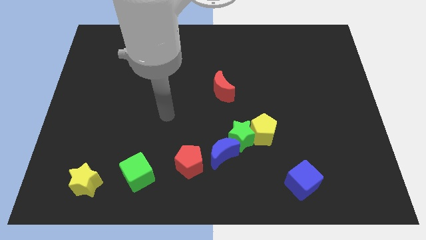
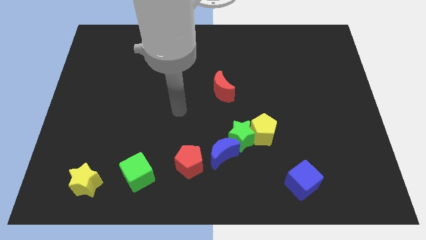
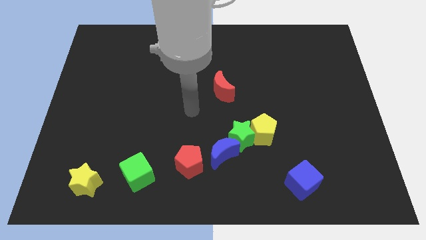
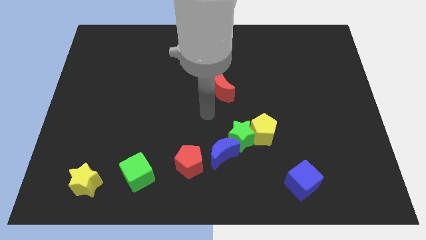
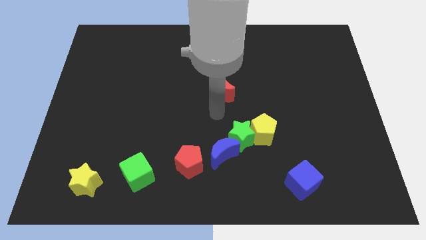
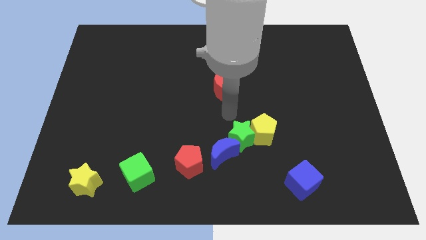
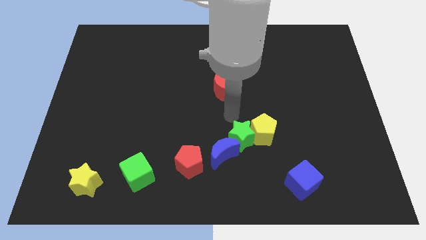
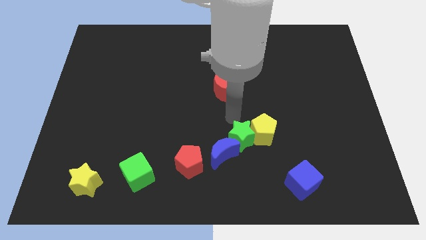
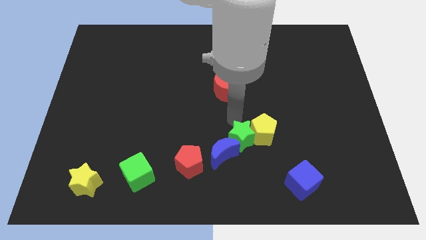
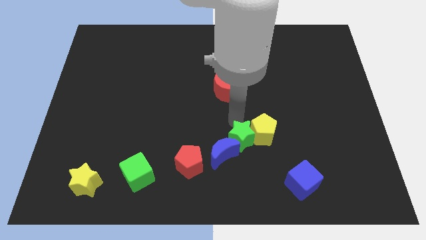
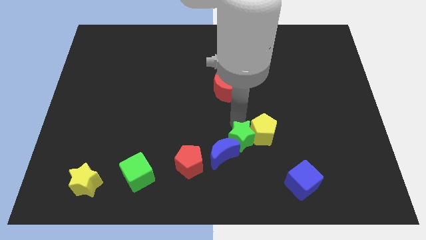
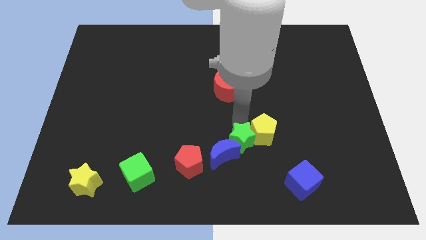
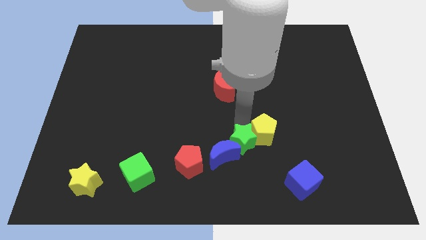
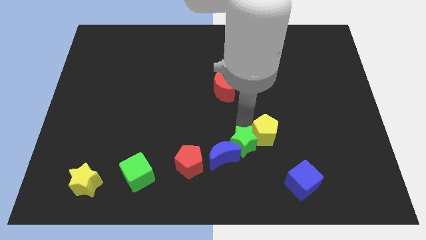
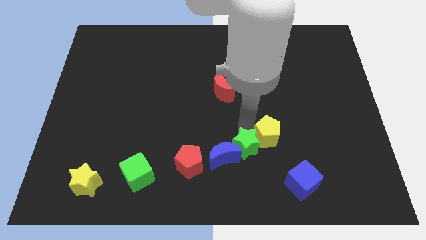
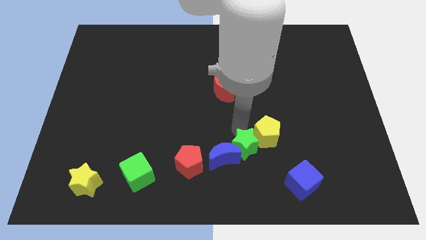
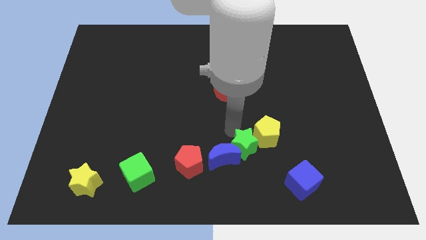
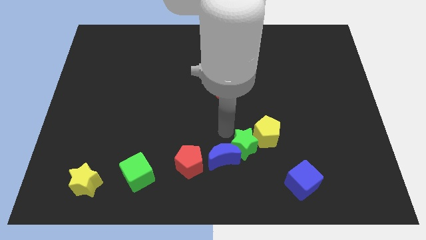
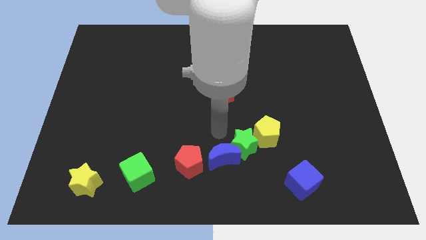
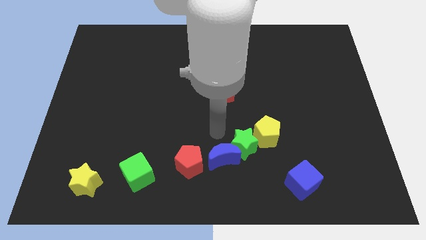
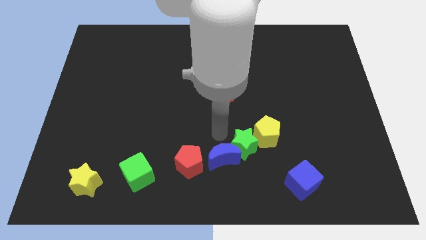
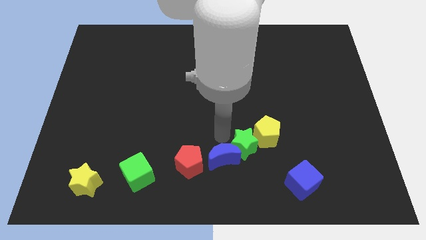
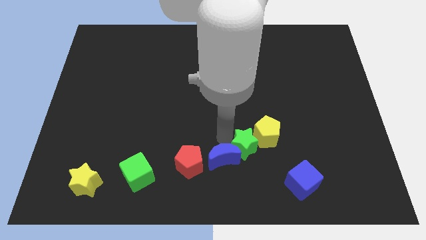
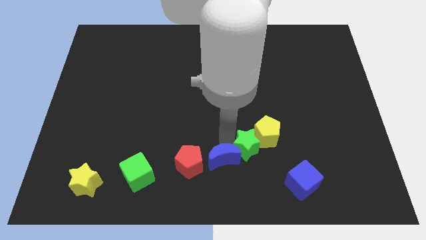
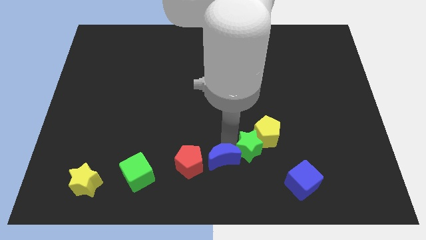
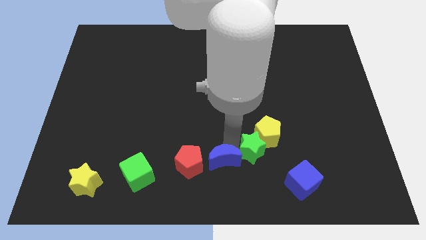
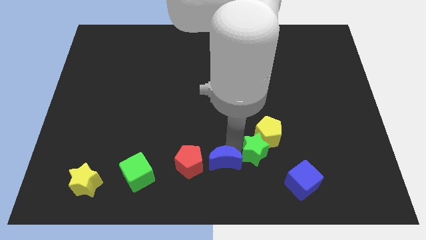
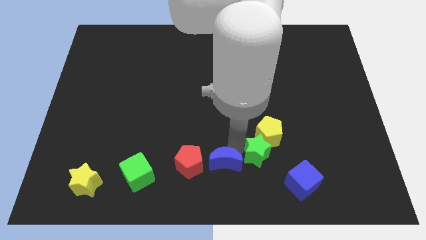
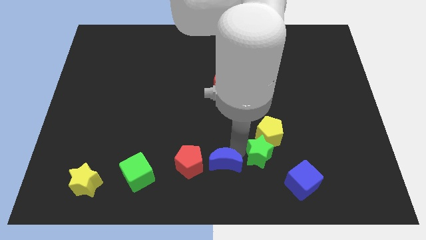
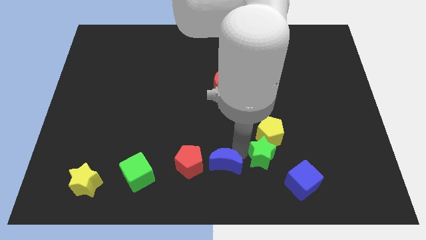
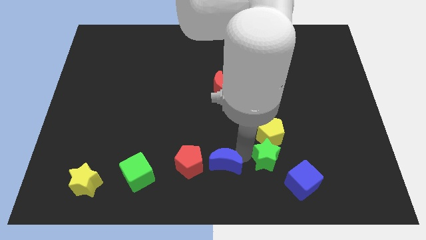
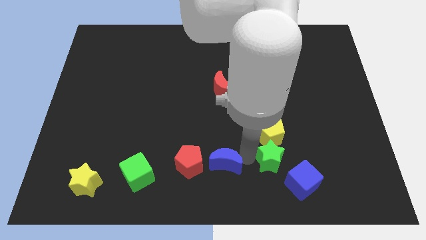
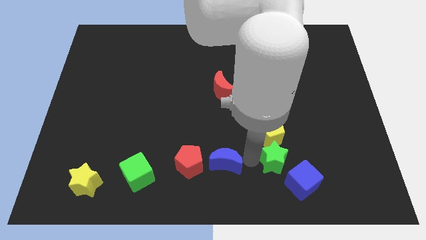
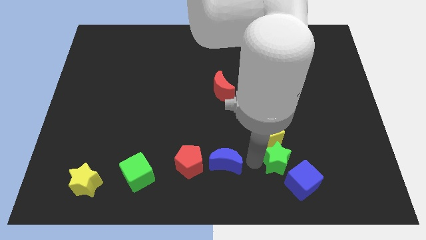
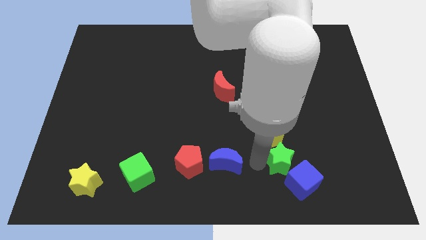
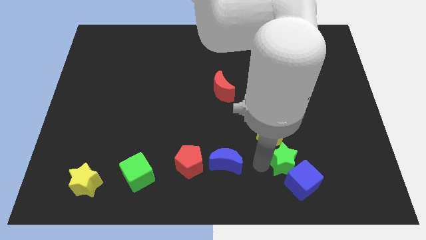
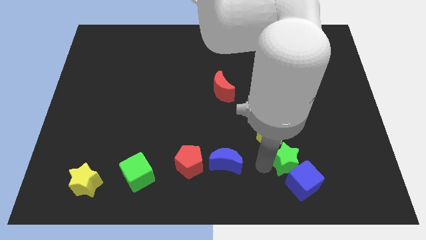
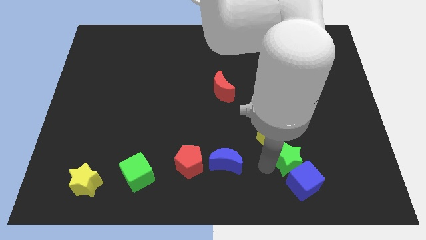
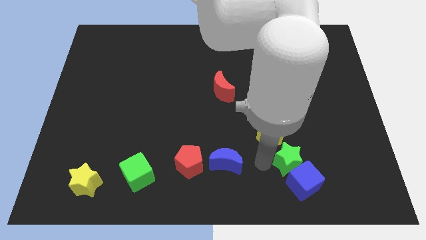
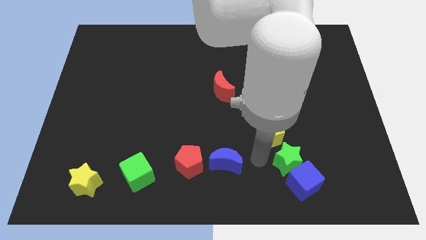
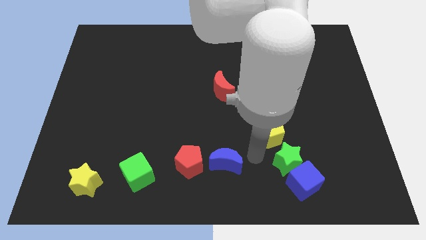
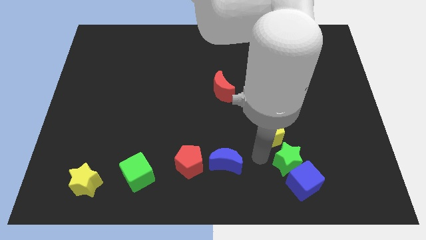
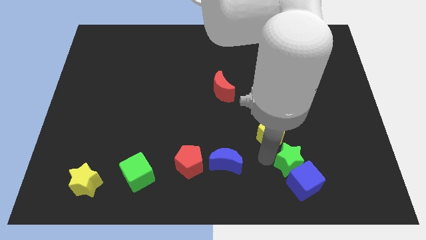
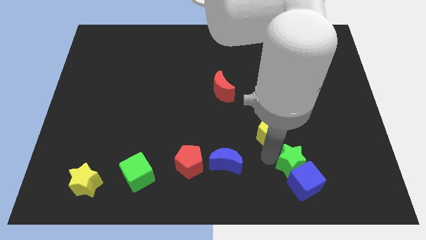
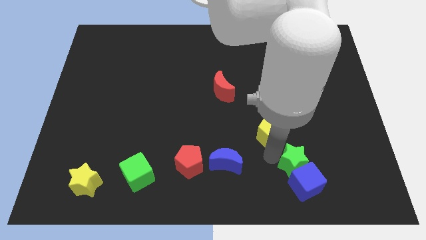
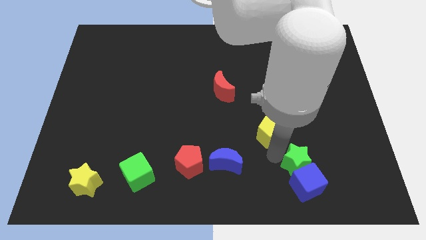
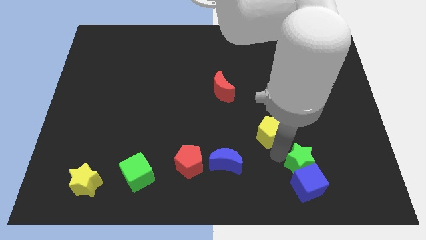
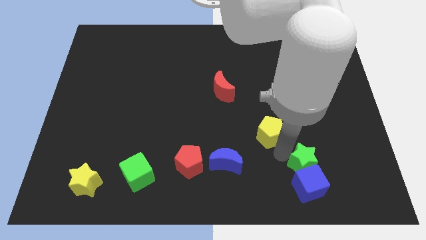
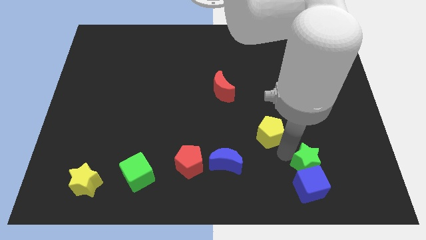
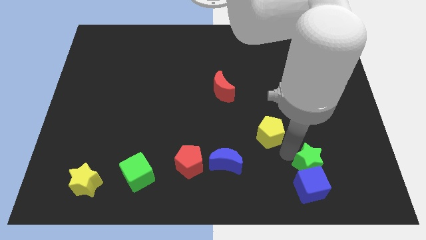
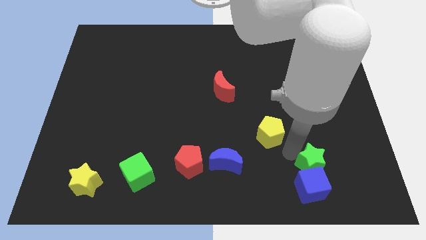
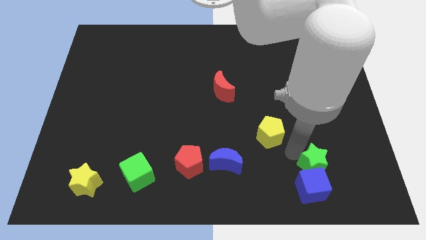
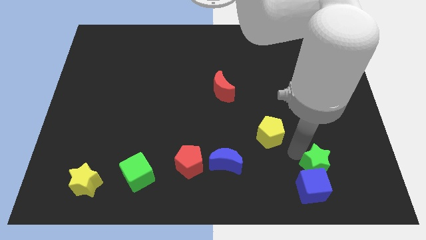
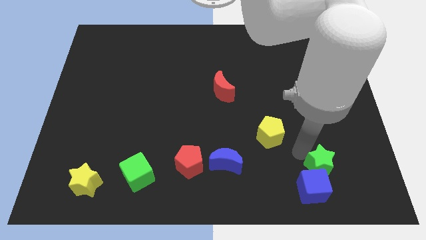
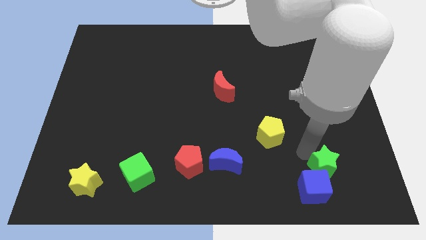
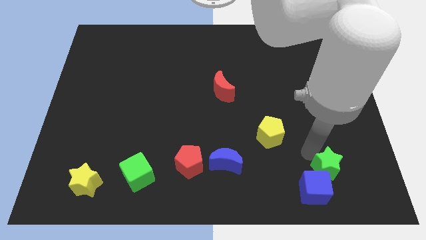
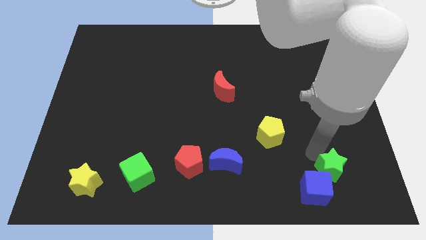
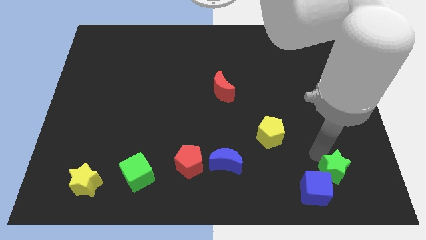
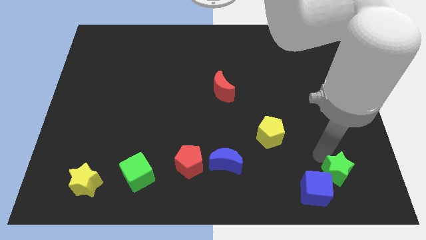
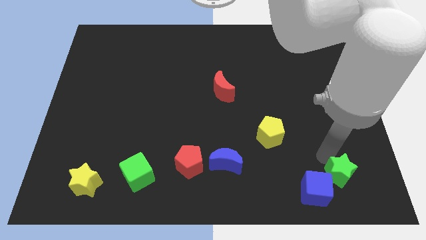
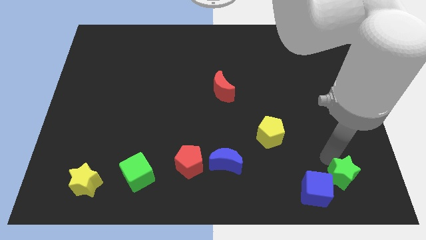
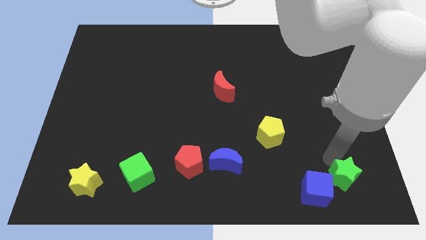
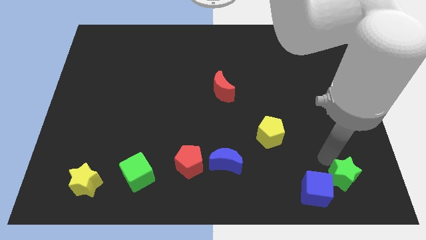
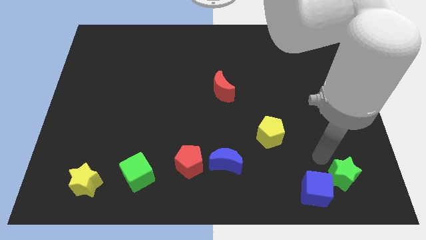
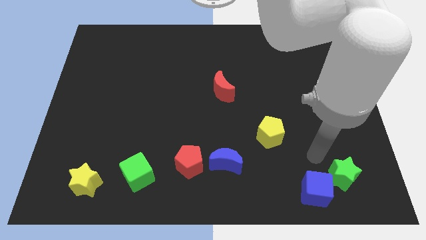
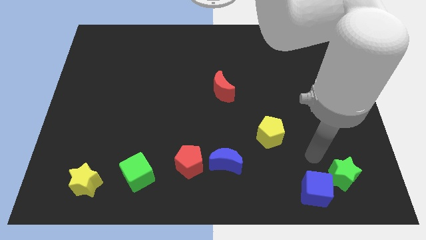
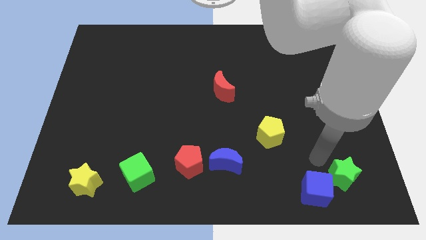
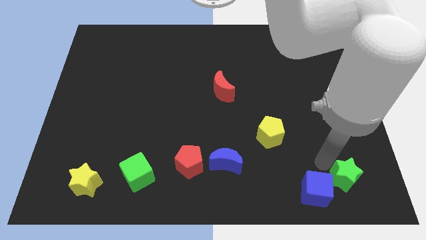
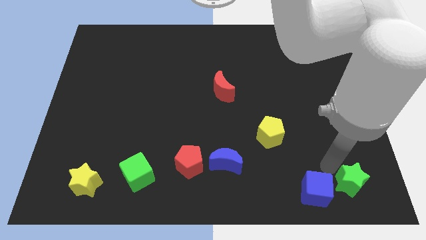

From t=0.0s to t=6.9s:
push the green star to the lower right corner

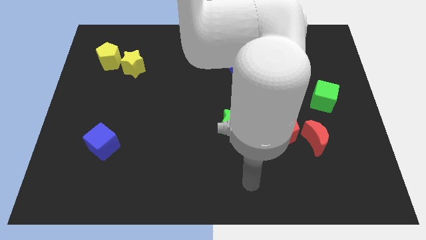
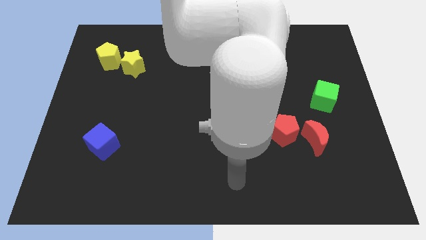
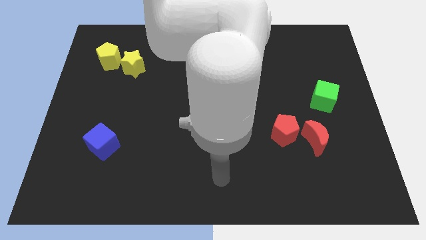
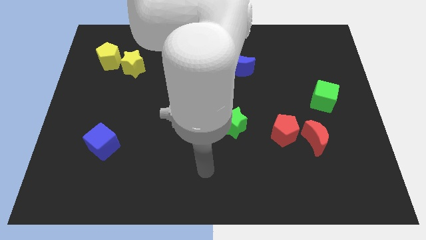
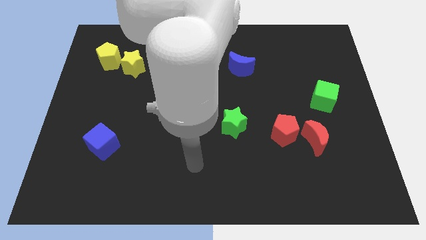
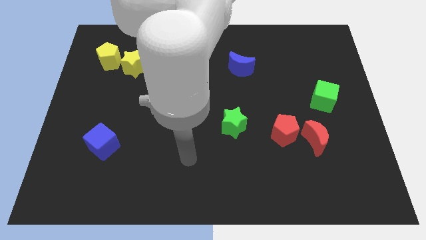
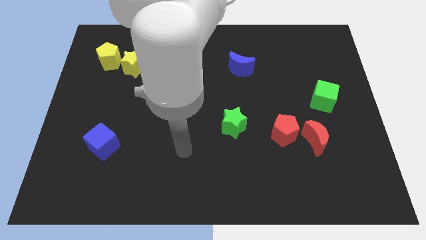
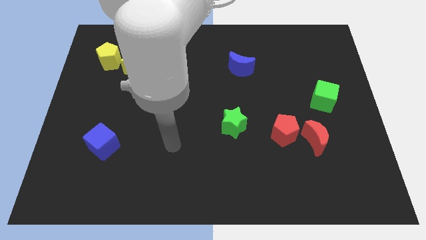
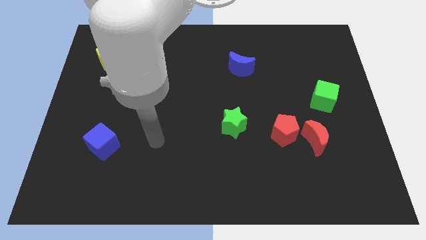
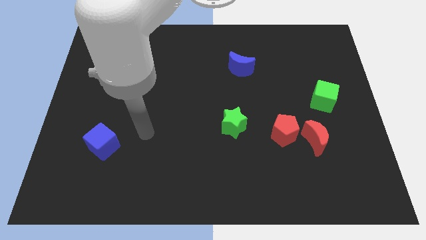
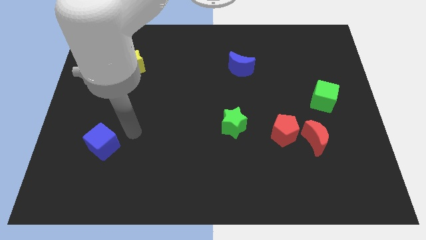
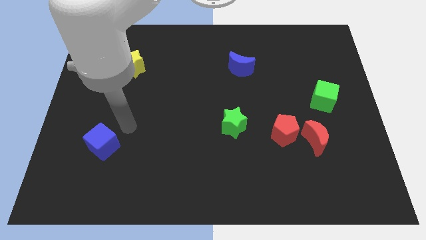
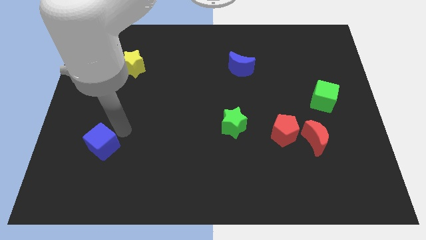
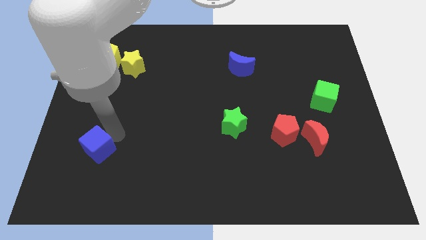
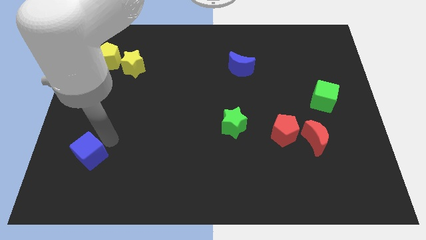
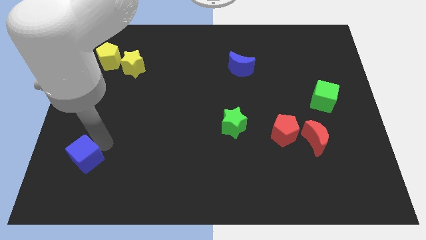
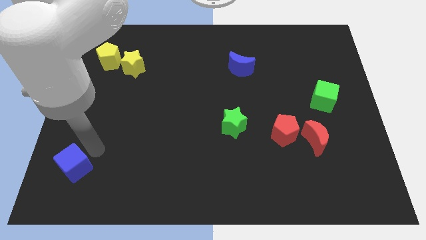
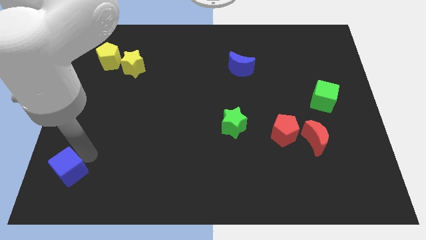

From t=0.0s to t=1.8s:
slide the blue cube to the bottom left of the board
